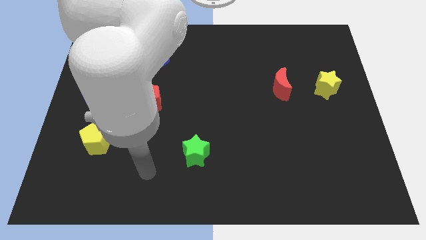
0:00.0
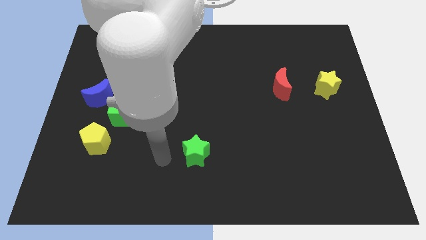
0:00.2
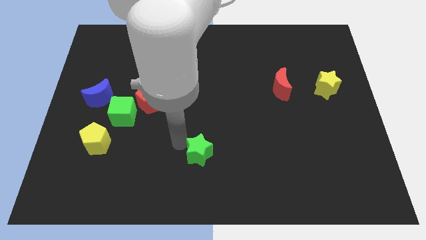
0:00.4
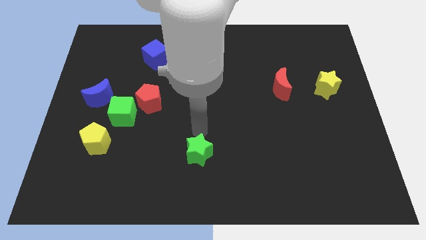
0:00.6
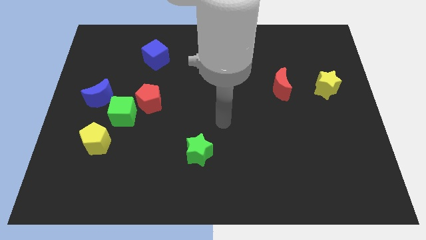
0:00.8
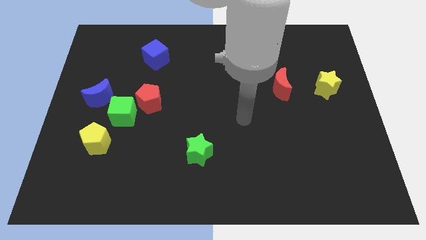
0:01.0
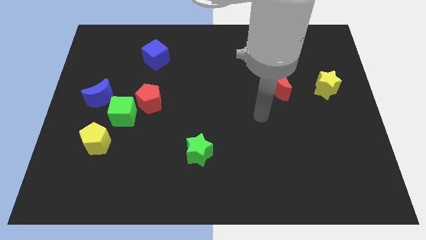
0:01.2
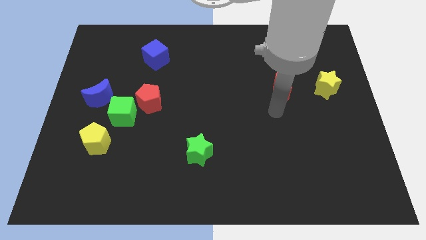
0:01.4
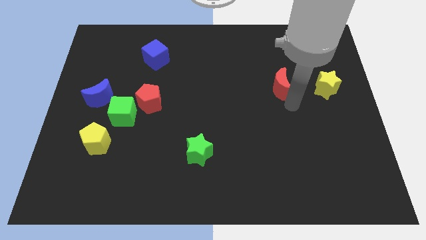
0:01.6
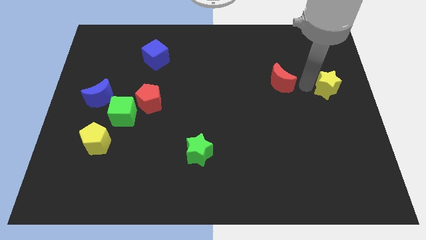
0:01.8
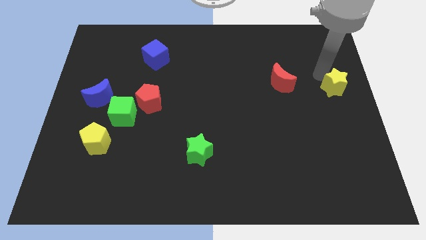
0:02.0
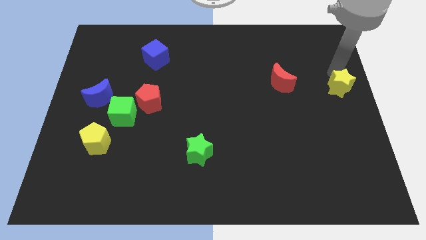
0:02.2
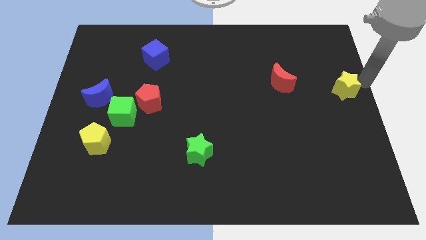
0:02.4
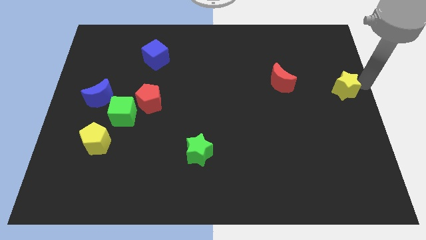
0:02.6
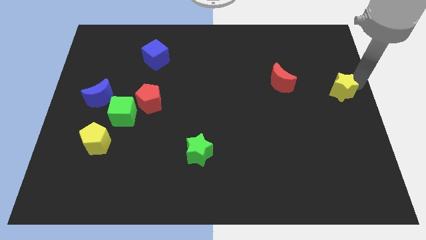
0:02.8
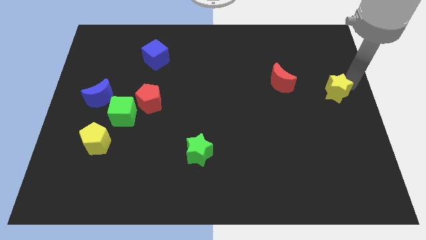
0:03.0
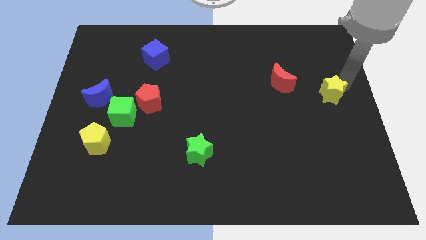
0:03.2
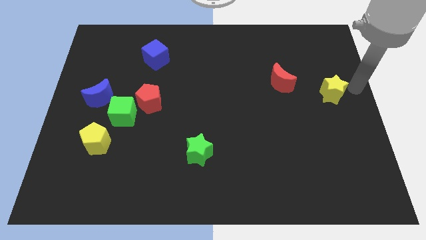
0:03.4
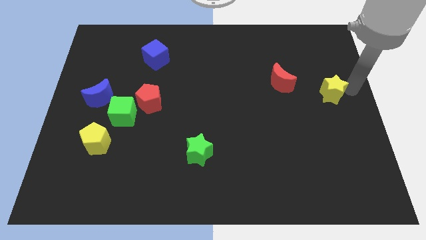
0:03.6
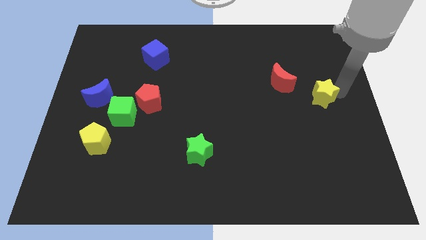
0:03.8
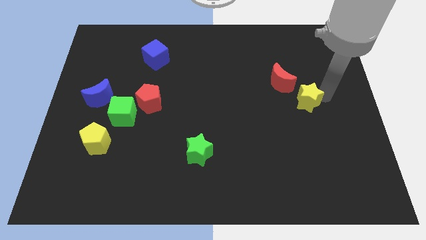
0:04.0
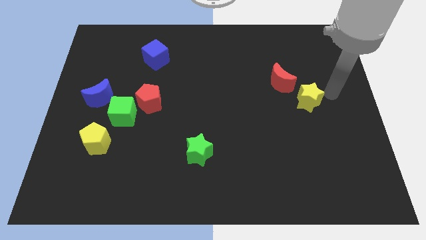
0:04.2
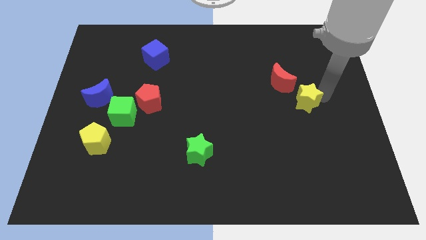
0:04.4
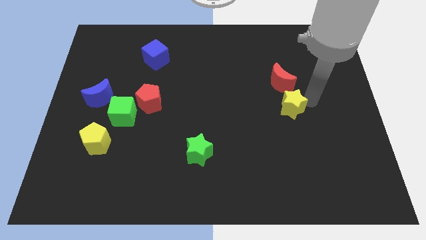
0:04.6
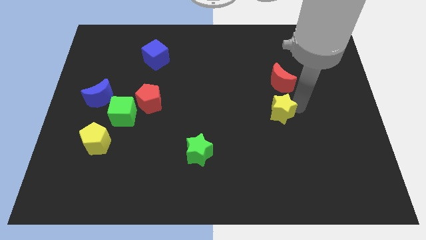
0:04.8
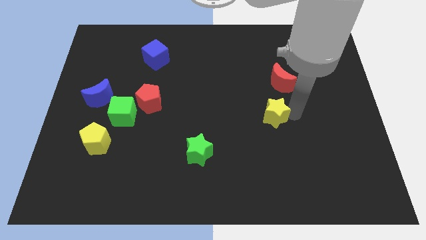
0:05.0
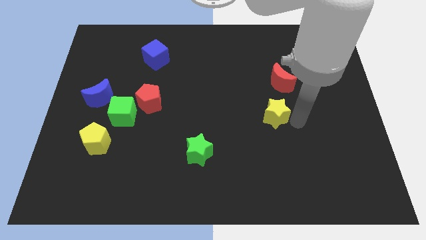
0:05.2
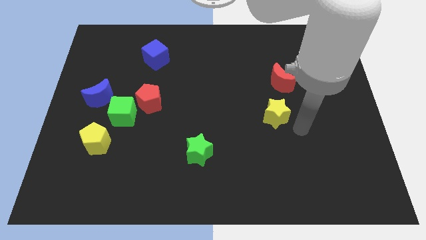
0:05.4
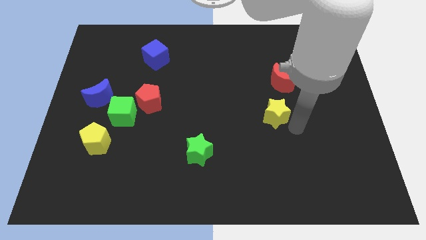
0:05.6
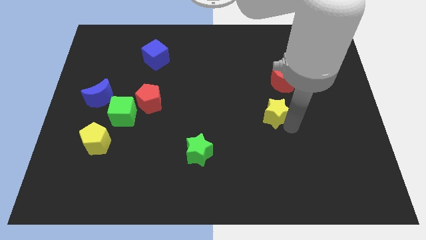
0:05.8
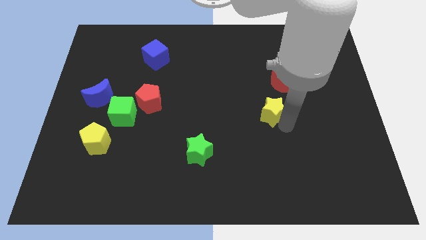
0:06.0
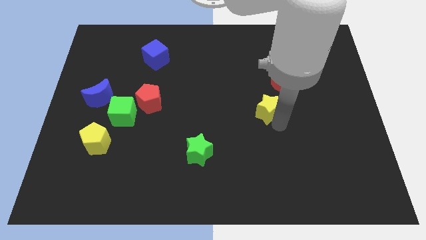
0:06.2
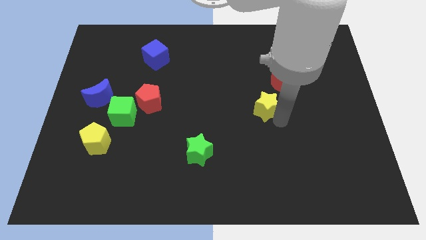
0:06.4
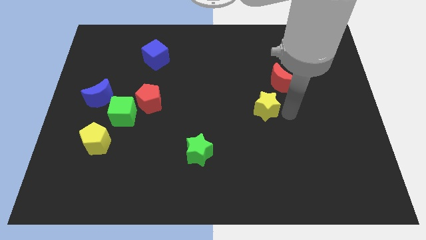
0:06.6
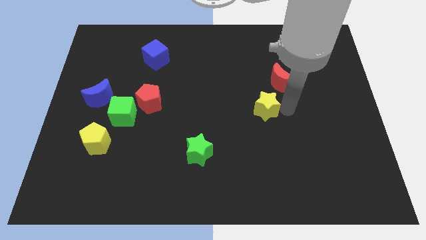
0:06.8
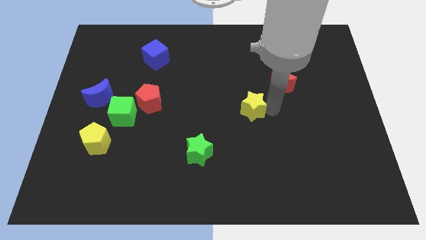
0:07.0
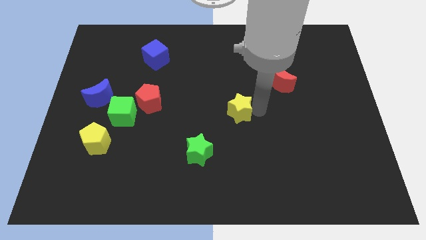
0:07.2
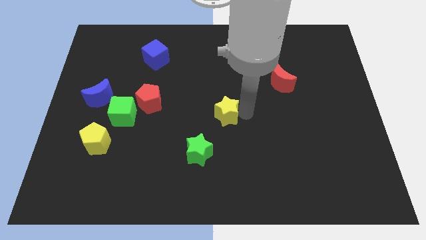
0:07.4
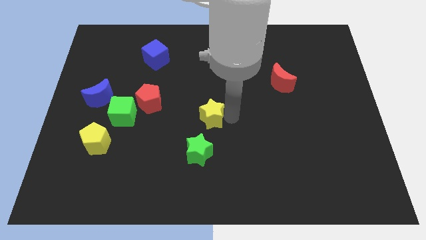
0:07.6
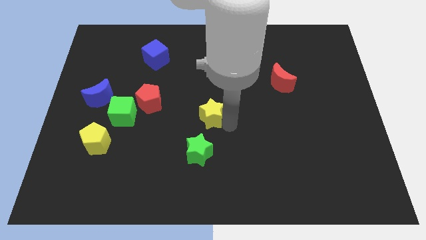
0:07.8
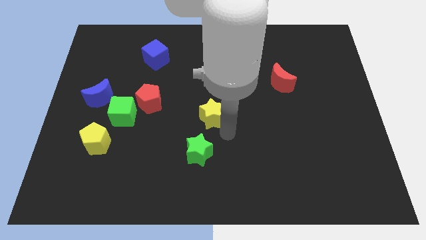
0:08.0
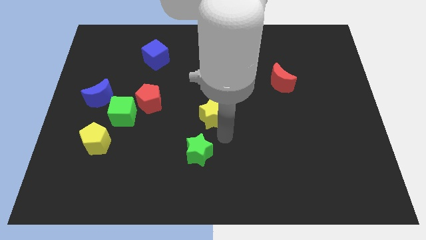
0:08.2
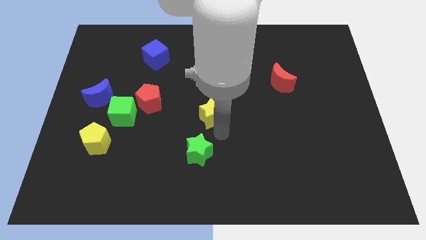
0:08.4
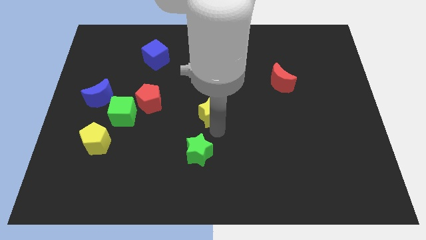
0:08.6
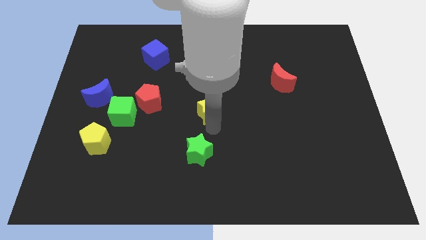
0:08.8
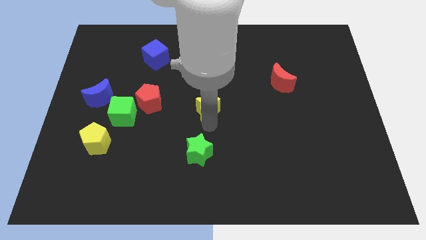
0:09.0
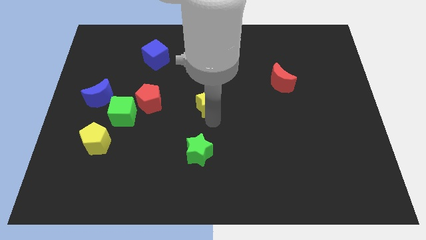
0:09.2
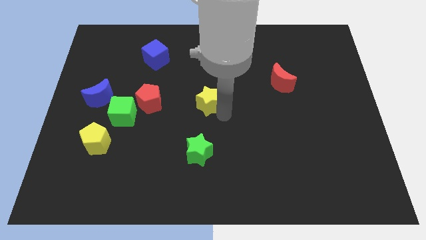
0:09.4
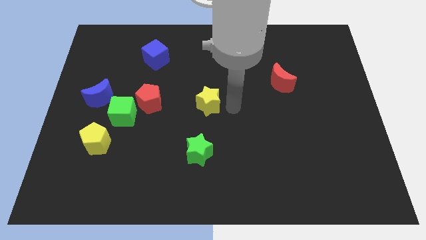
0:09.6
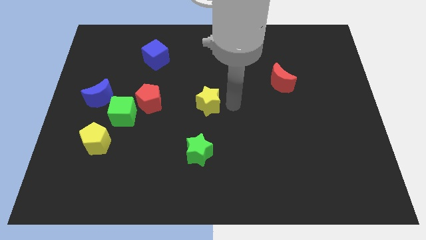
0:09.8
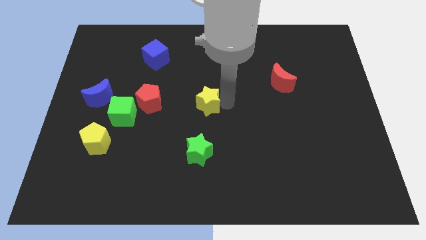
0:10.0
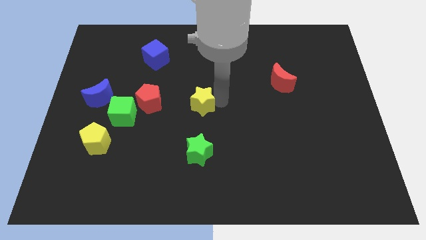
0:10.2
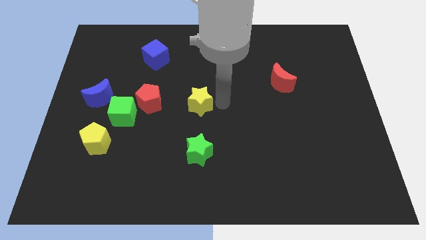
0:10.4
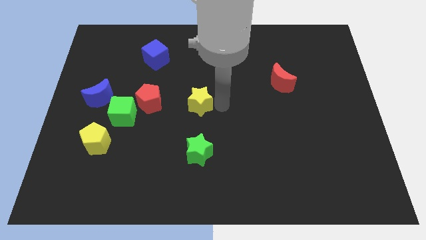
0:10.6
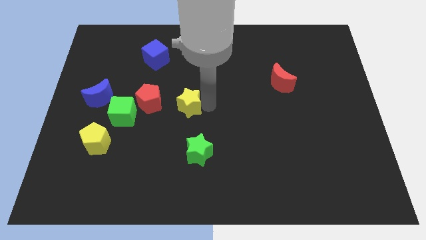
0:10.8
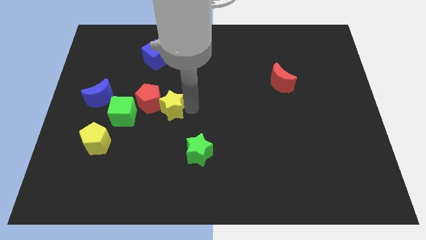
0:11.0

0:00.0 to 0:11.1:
push the yellow star to the red pentagon

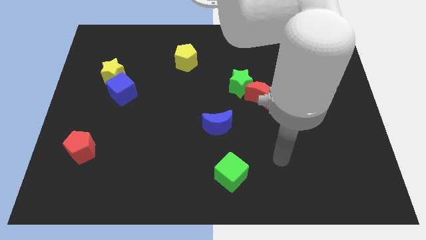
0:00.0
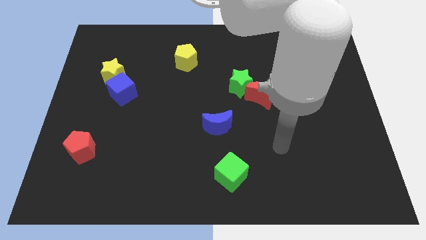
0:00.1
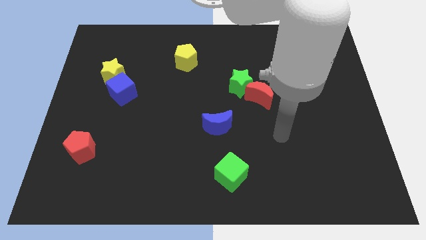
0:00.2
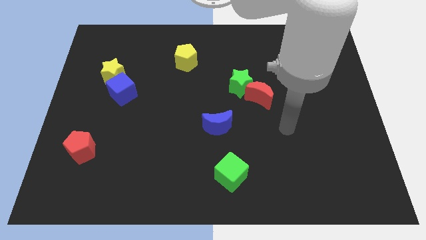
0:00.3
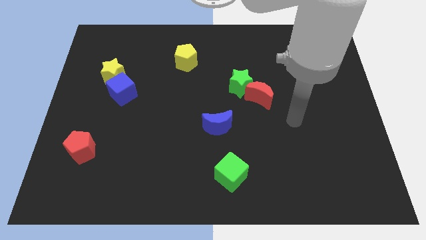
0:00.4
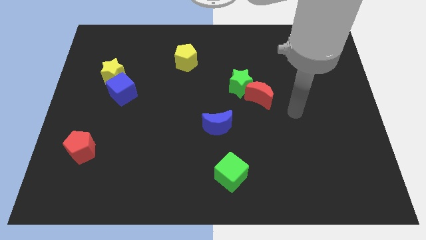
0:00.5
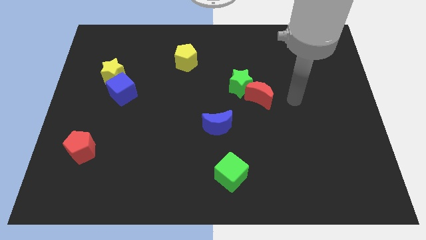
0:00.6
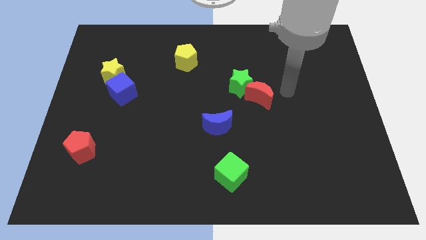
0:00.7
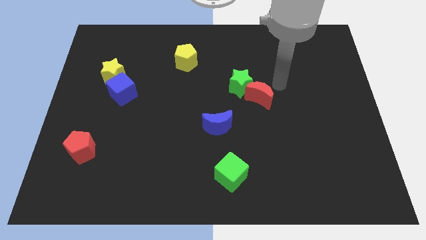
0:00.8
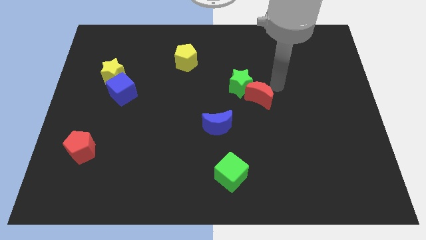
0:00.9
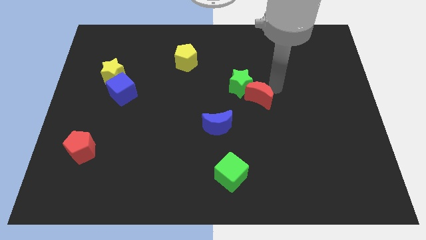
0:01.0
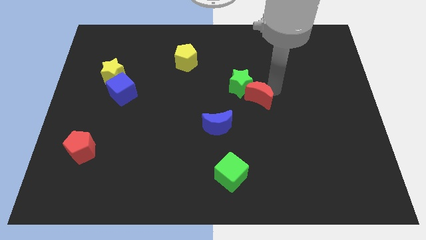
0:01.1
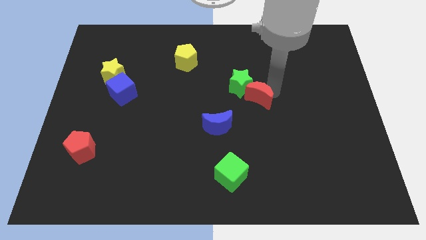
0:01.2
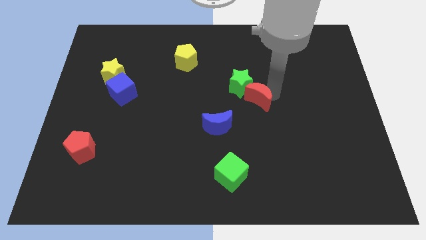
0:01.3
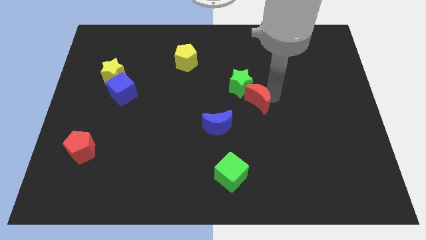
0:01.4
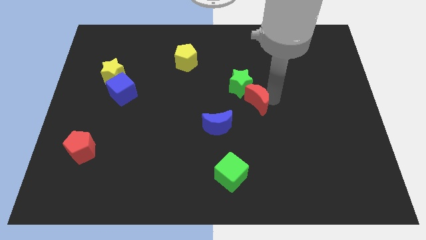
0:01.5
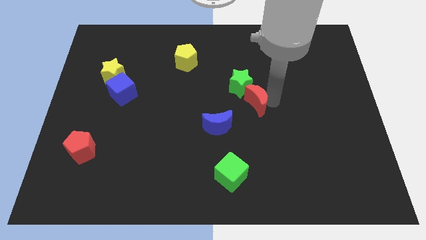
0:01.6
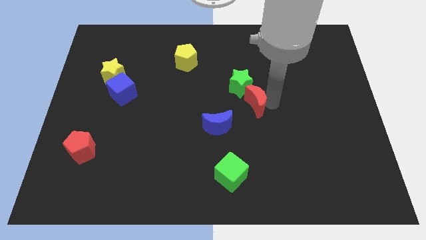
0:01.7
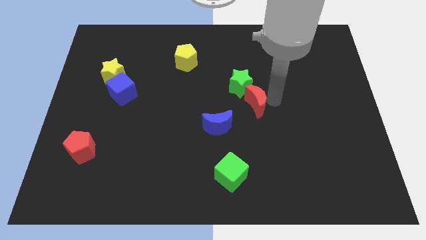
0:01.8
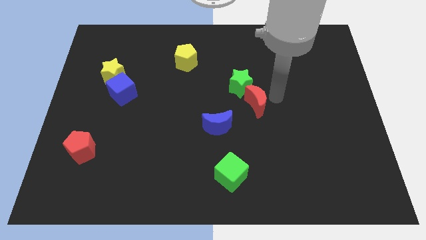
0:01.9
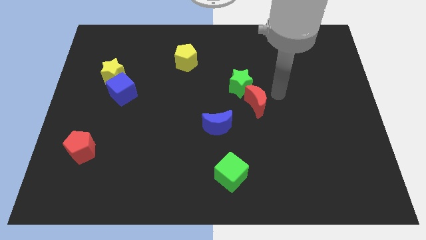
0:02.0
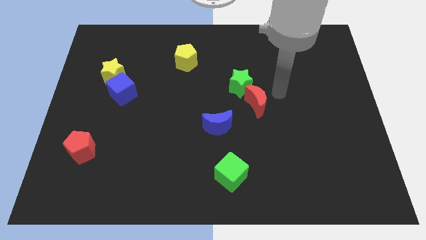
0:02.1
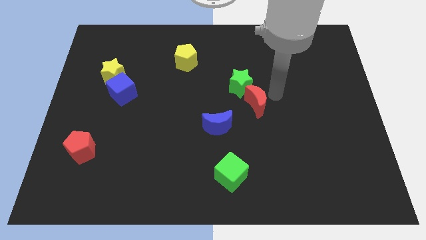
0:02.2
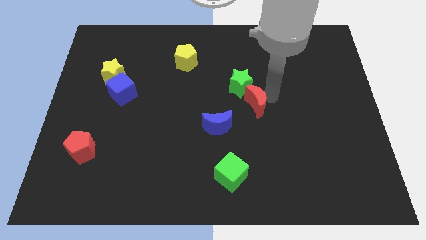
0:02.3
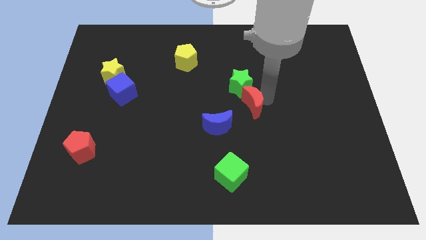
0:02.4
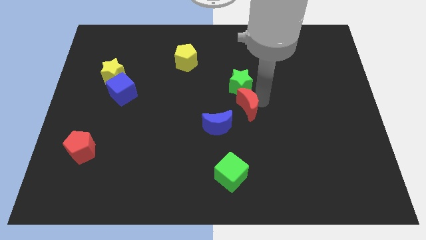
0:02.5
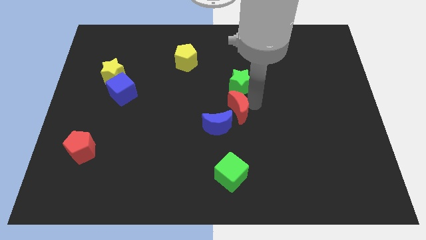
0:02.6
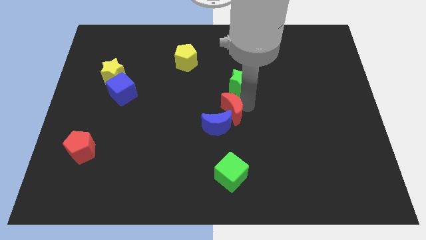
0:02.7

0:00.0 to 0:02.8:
push the red moon to the blue moon
